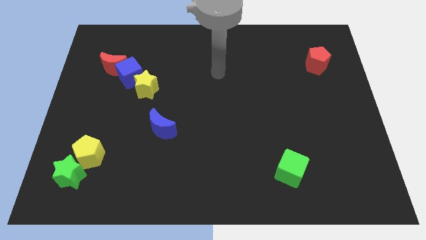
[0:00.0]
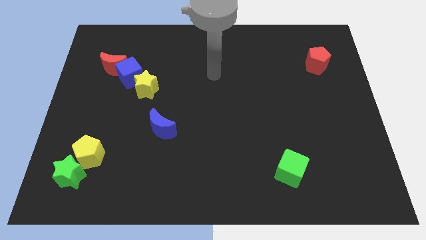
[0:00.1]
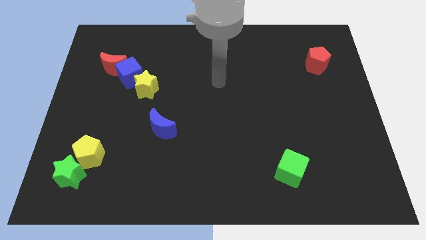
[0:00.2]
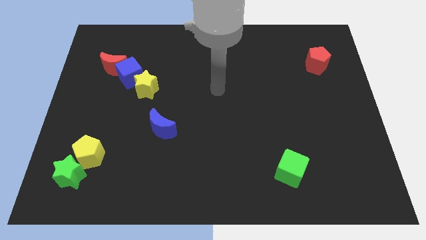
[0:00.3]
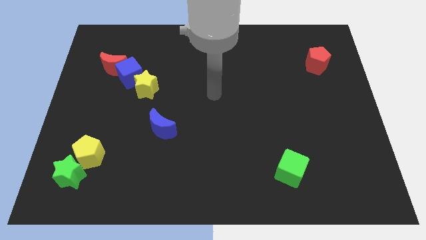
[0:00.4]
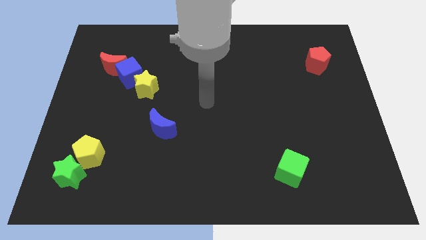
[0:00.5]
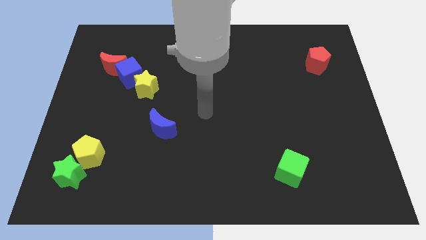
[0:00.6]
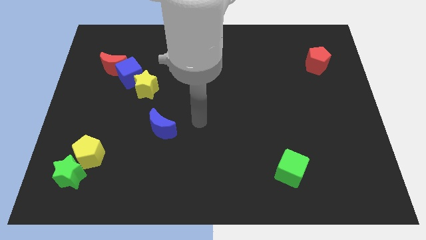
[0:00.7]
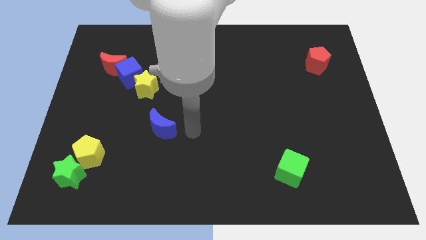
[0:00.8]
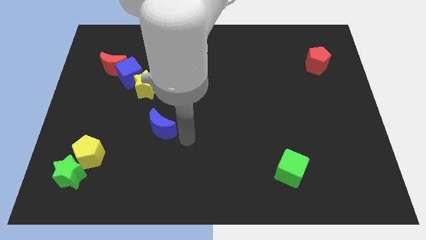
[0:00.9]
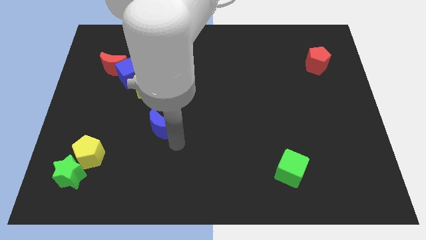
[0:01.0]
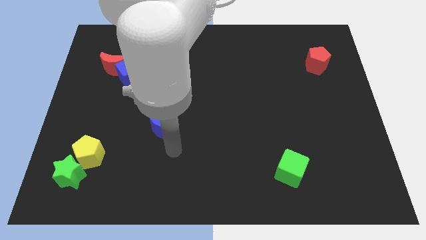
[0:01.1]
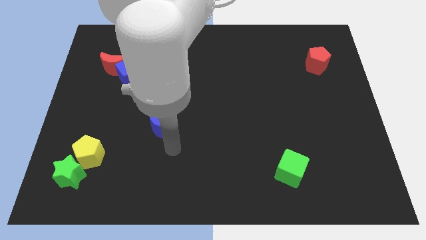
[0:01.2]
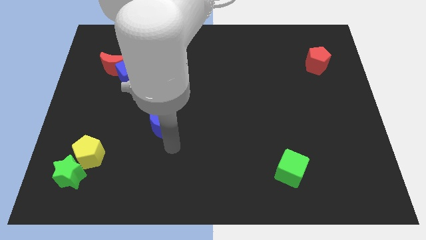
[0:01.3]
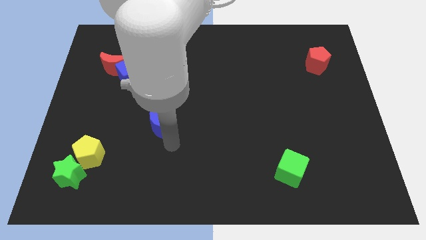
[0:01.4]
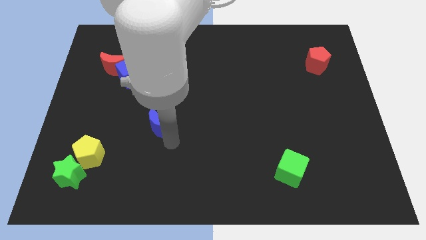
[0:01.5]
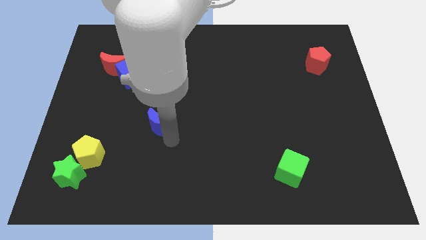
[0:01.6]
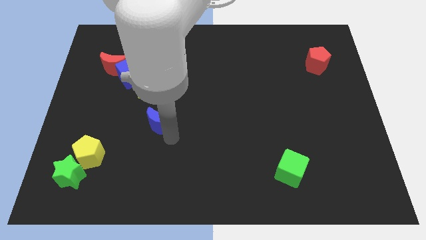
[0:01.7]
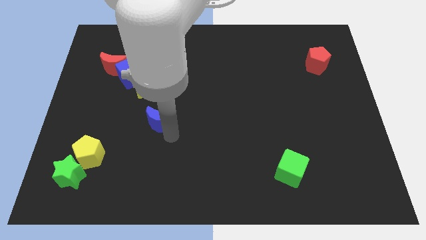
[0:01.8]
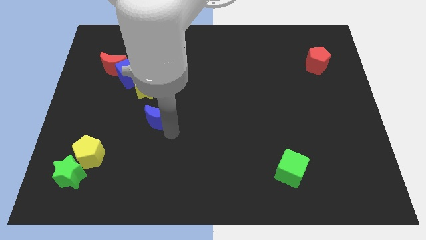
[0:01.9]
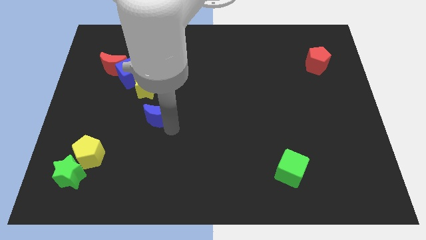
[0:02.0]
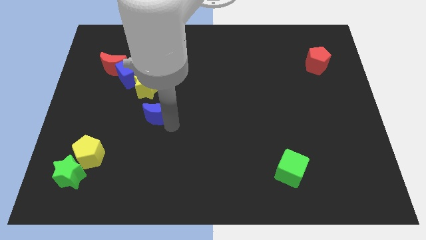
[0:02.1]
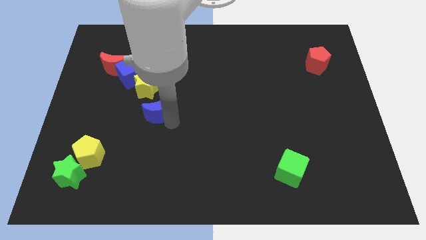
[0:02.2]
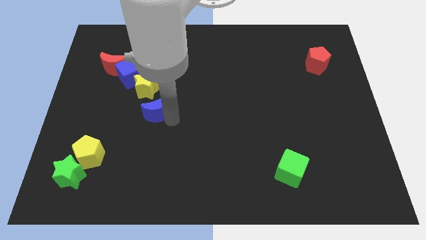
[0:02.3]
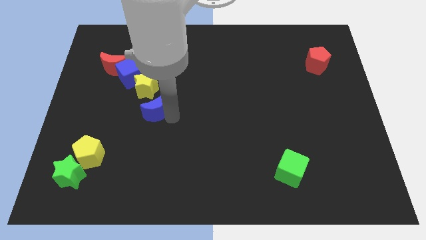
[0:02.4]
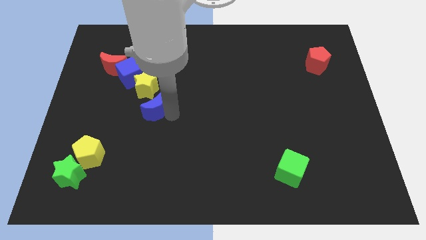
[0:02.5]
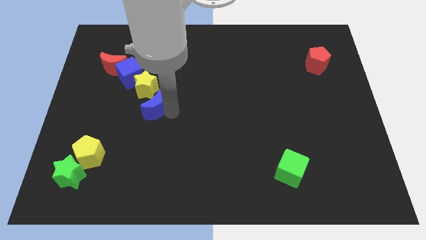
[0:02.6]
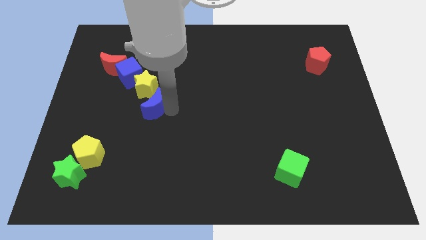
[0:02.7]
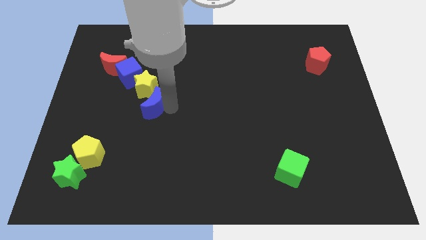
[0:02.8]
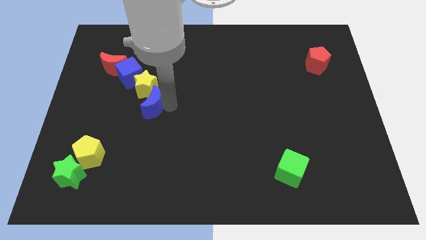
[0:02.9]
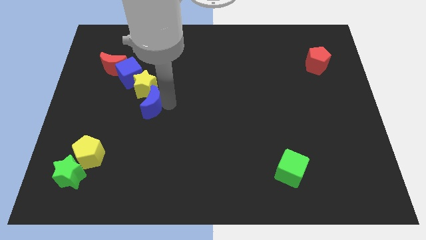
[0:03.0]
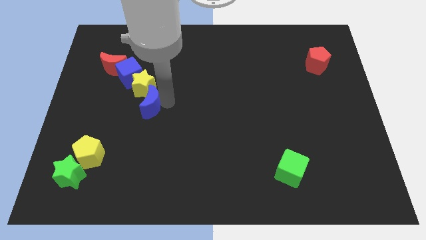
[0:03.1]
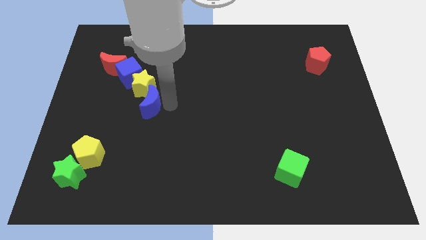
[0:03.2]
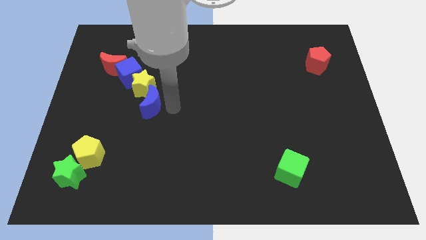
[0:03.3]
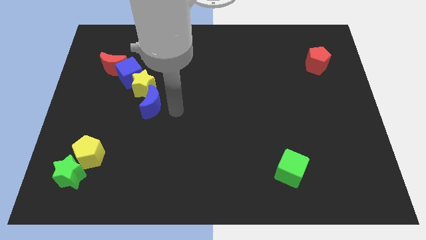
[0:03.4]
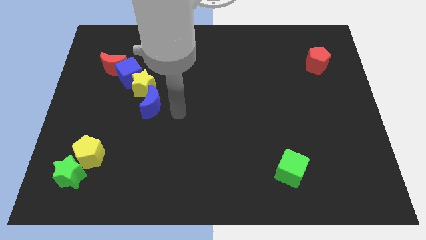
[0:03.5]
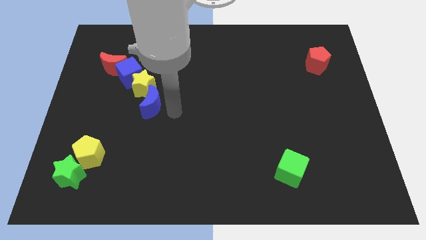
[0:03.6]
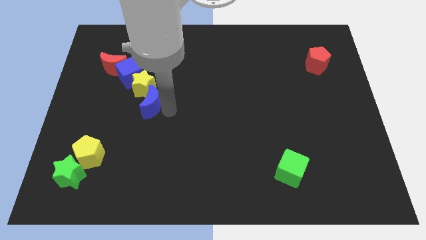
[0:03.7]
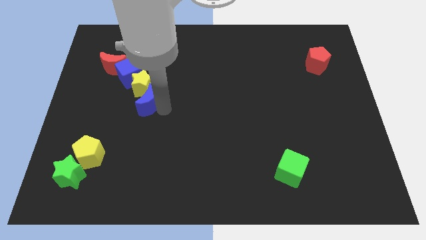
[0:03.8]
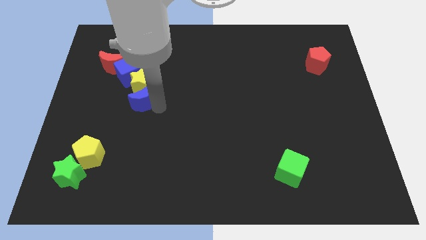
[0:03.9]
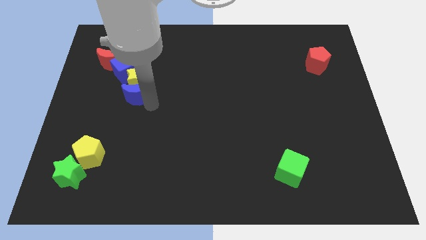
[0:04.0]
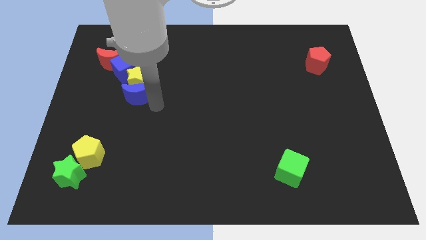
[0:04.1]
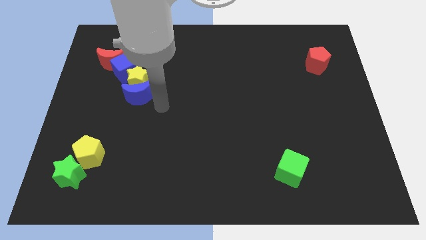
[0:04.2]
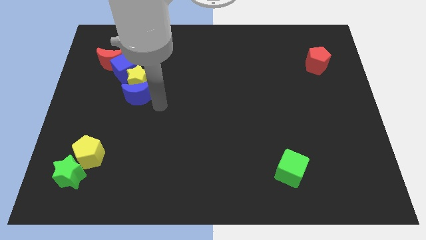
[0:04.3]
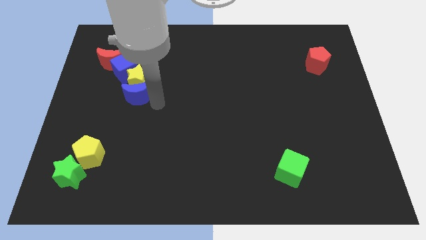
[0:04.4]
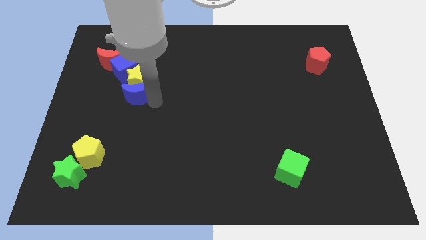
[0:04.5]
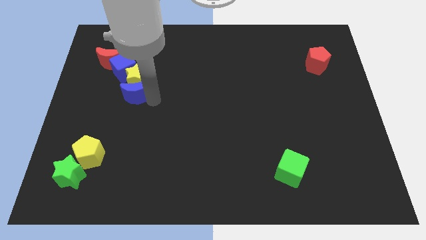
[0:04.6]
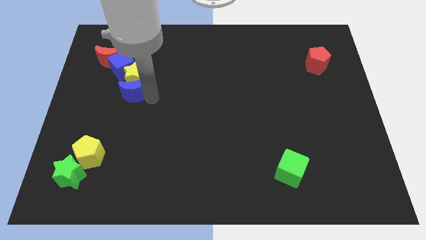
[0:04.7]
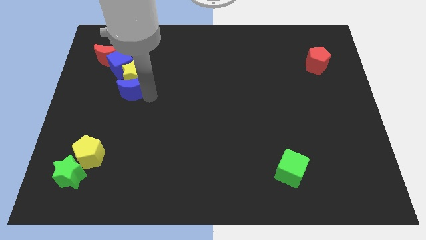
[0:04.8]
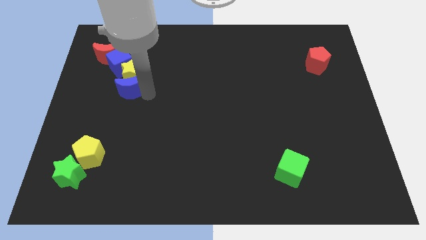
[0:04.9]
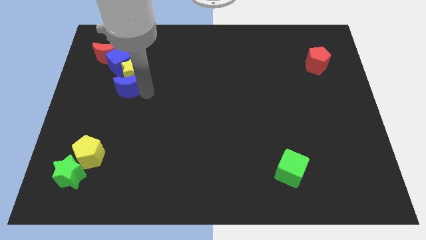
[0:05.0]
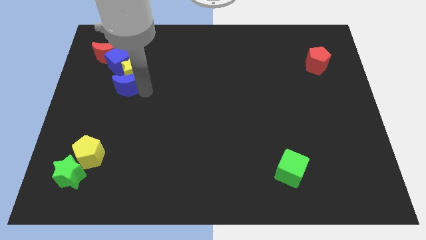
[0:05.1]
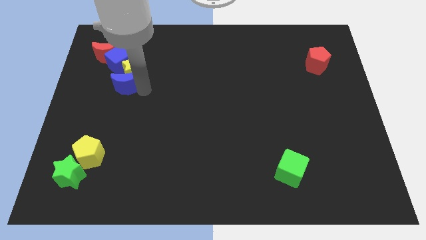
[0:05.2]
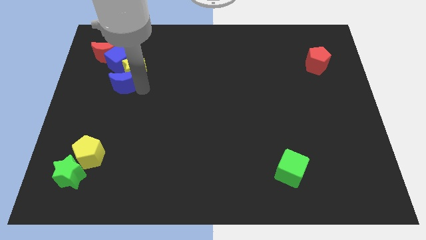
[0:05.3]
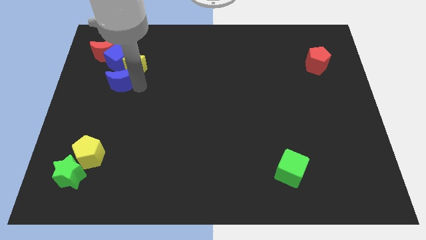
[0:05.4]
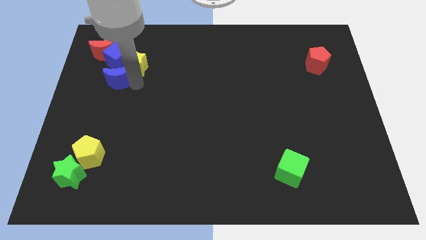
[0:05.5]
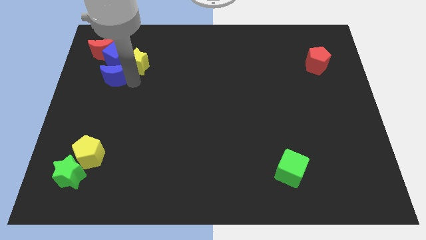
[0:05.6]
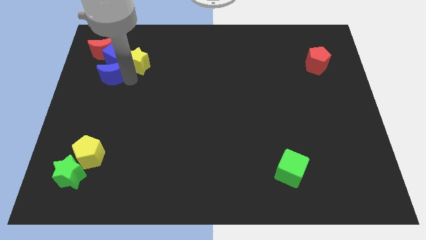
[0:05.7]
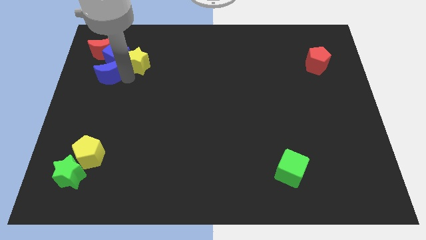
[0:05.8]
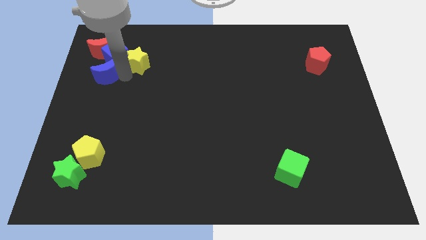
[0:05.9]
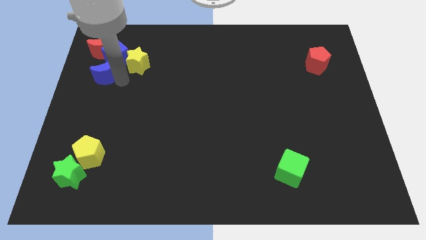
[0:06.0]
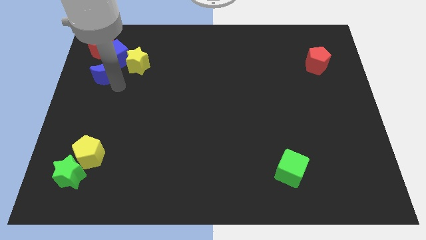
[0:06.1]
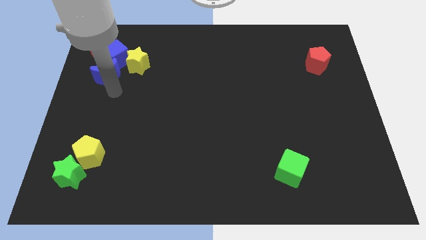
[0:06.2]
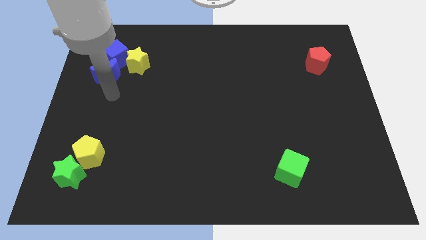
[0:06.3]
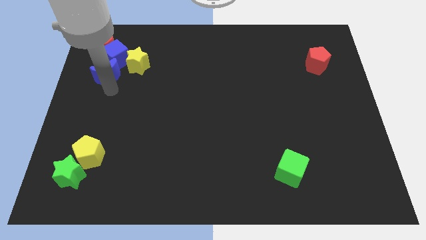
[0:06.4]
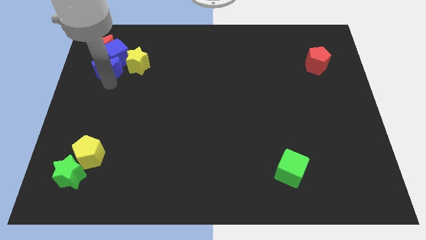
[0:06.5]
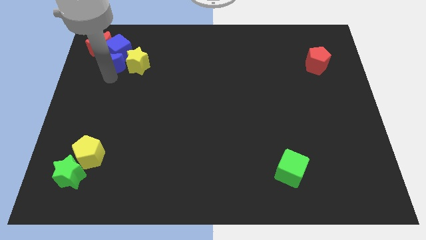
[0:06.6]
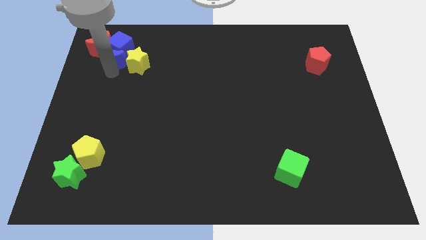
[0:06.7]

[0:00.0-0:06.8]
push the blue moon towards the red moon

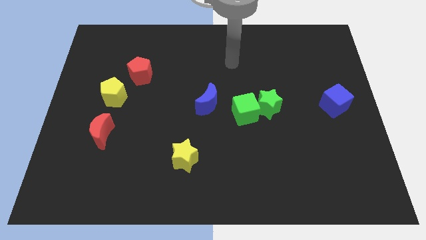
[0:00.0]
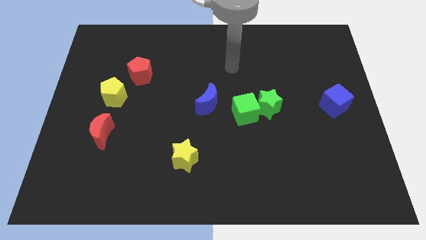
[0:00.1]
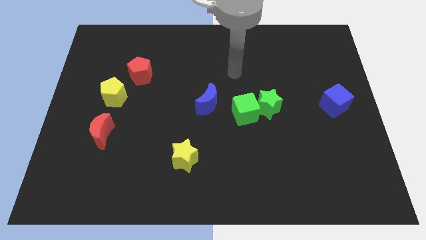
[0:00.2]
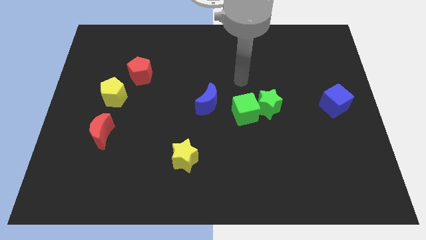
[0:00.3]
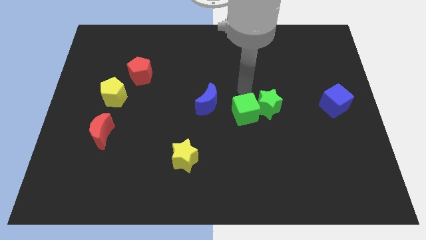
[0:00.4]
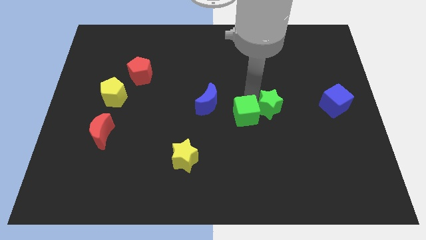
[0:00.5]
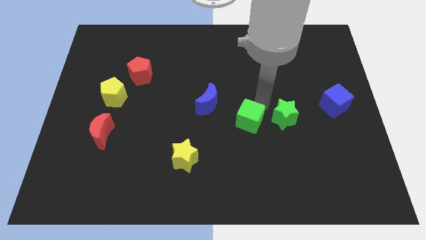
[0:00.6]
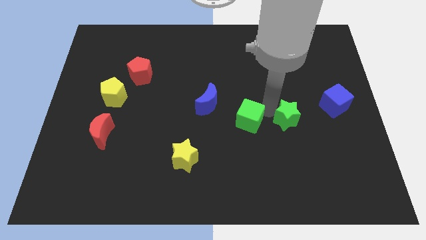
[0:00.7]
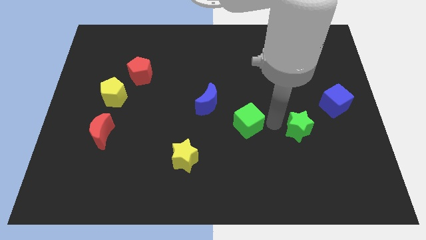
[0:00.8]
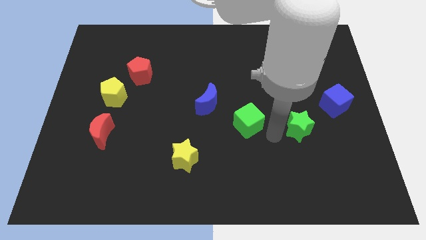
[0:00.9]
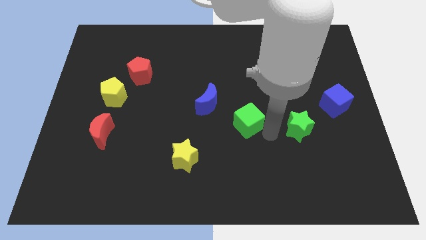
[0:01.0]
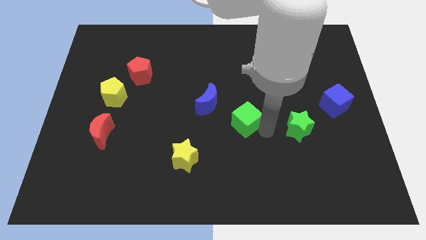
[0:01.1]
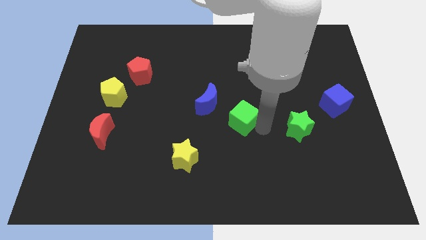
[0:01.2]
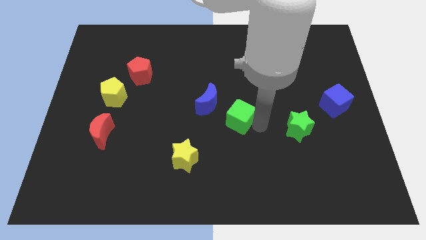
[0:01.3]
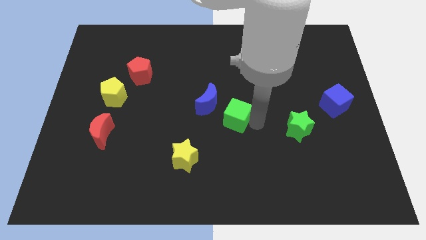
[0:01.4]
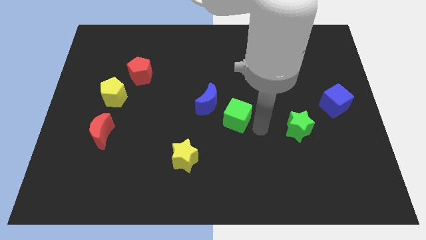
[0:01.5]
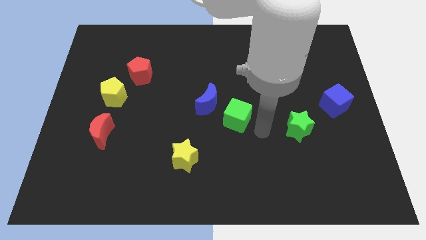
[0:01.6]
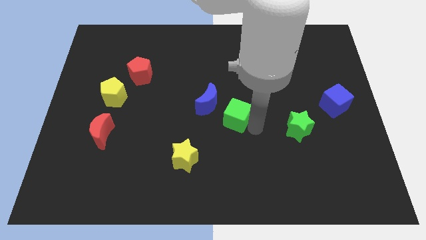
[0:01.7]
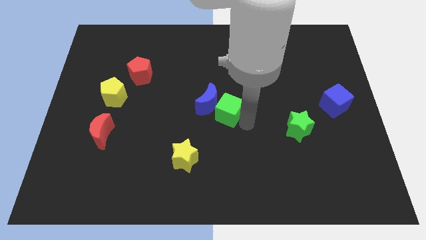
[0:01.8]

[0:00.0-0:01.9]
put the green cube close to the blue moon
